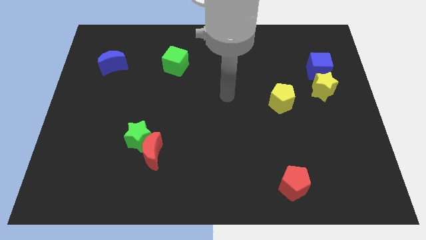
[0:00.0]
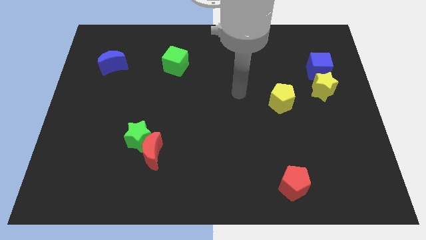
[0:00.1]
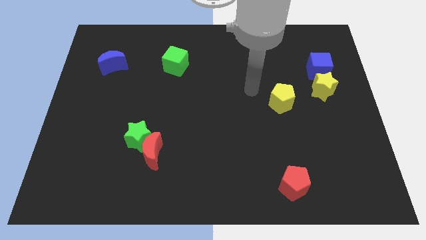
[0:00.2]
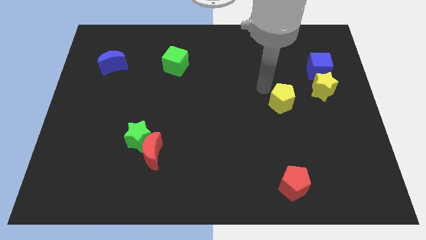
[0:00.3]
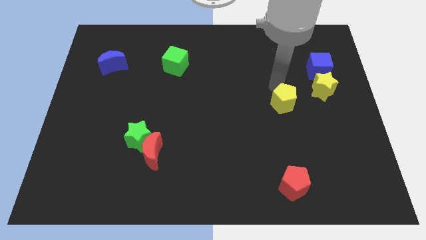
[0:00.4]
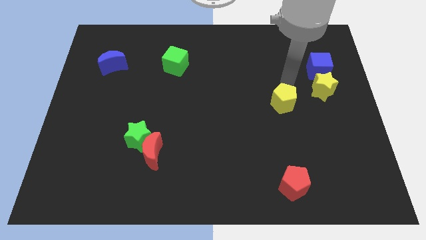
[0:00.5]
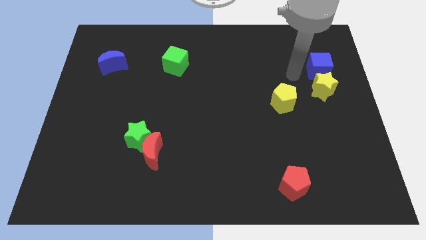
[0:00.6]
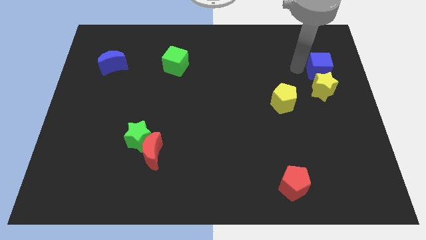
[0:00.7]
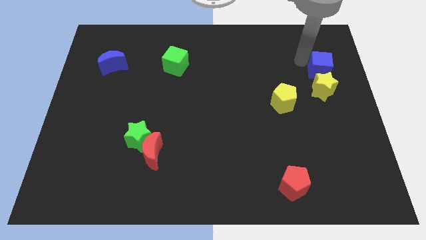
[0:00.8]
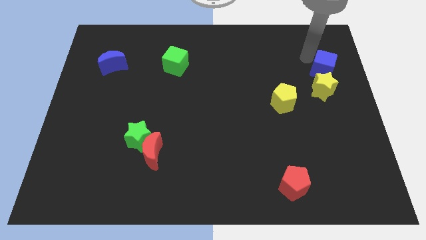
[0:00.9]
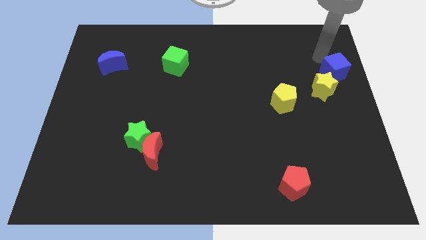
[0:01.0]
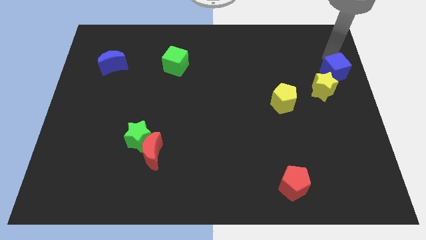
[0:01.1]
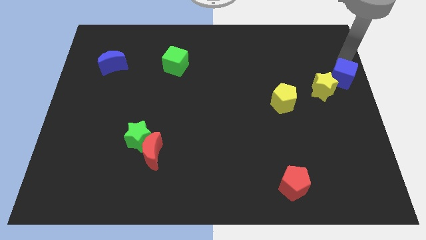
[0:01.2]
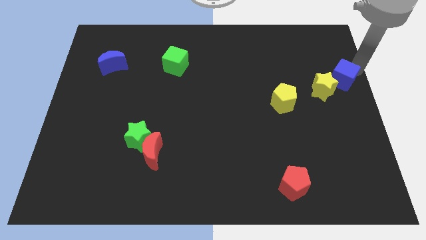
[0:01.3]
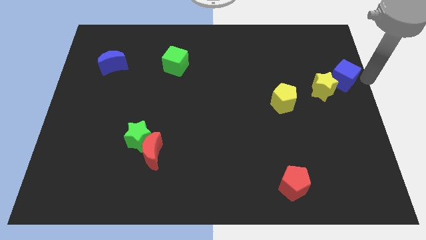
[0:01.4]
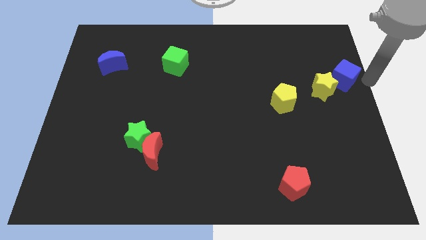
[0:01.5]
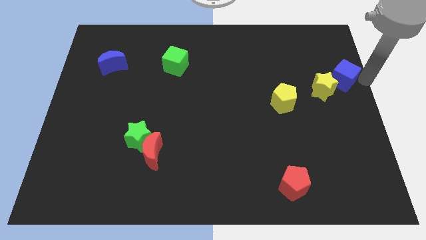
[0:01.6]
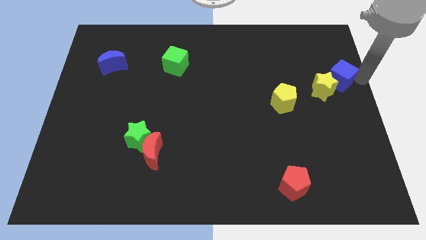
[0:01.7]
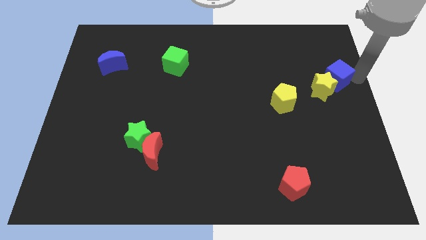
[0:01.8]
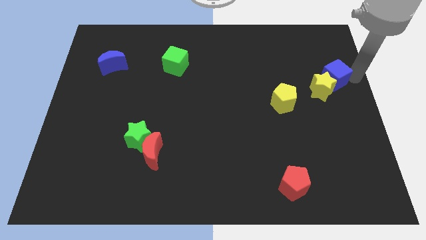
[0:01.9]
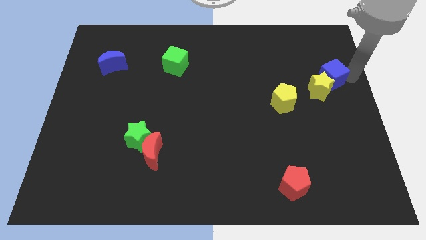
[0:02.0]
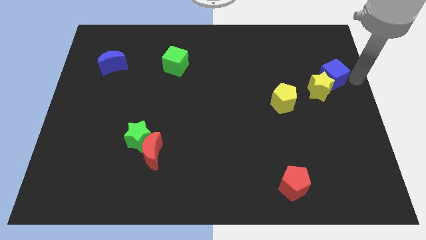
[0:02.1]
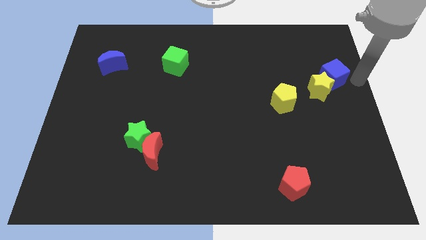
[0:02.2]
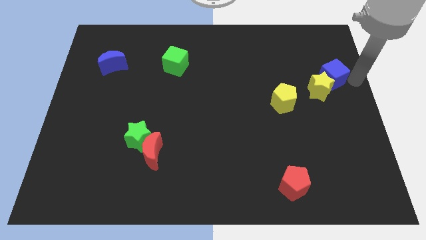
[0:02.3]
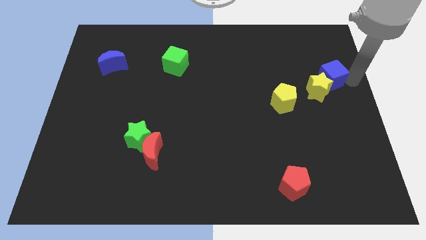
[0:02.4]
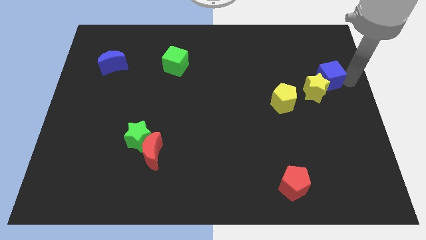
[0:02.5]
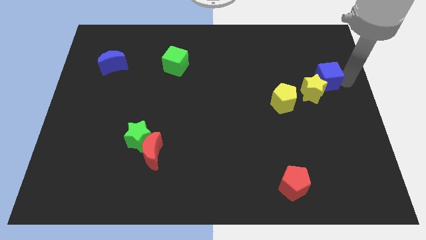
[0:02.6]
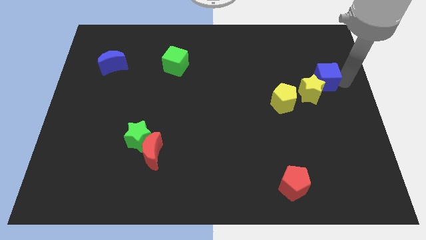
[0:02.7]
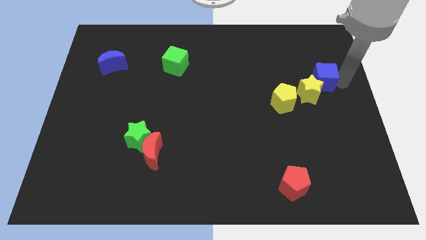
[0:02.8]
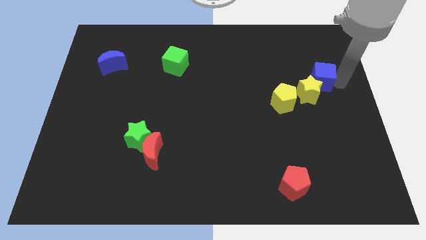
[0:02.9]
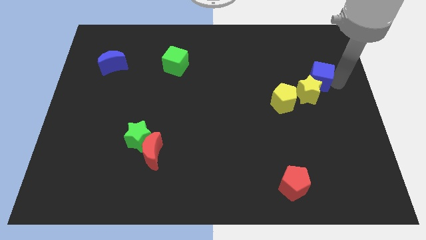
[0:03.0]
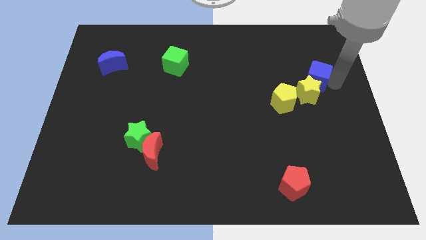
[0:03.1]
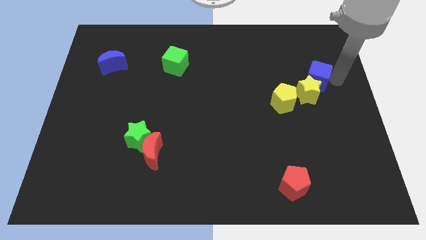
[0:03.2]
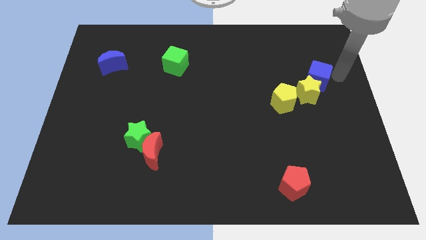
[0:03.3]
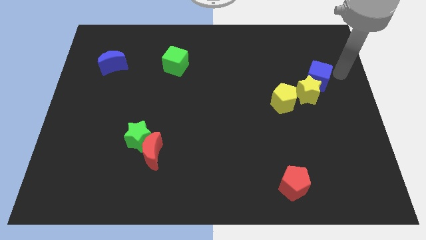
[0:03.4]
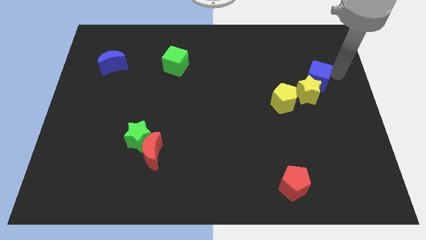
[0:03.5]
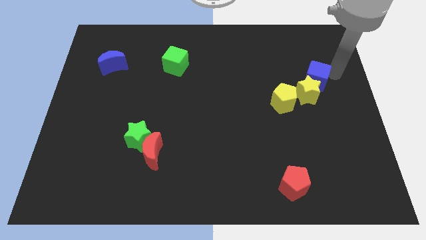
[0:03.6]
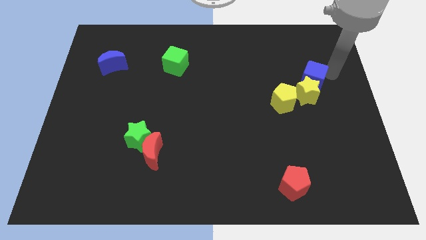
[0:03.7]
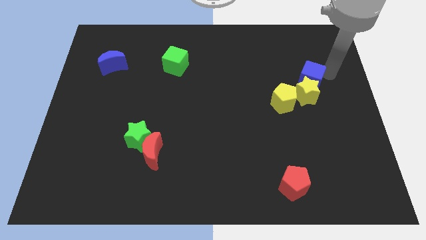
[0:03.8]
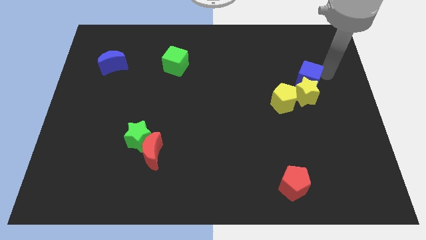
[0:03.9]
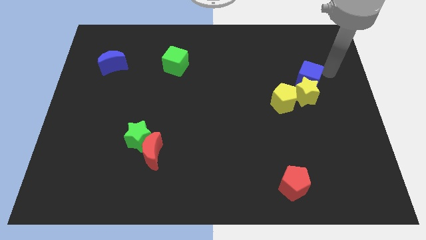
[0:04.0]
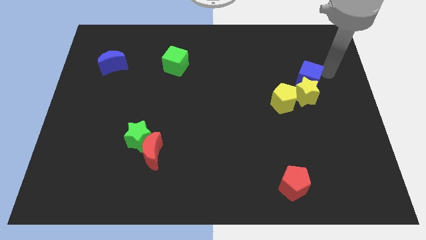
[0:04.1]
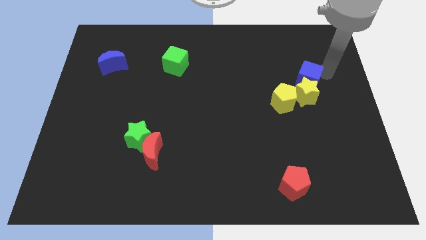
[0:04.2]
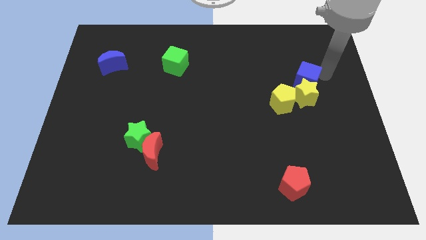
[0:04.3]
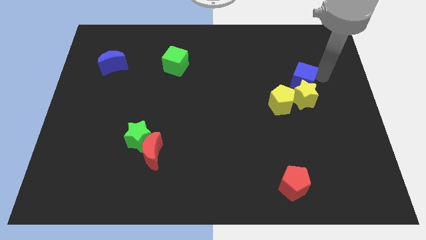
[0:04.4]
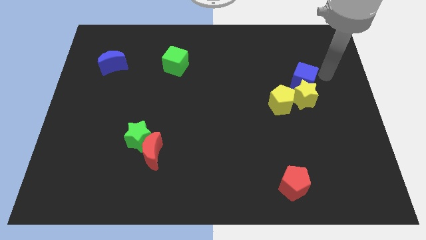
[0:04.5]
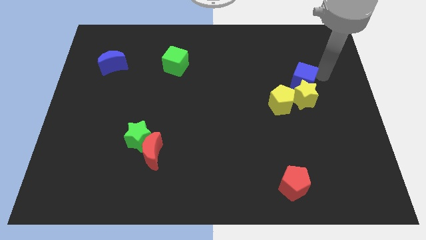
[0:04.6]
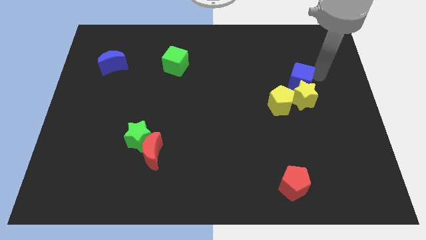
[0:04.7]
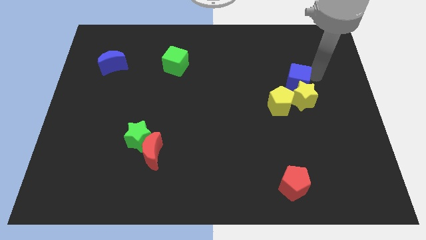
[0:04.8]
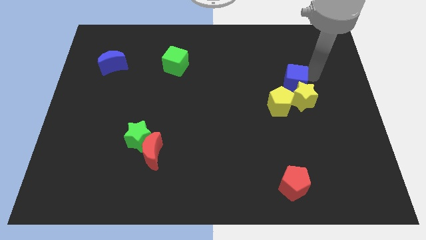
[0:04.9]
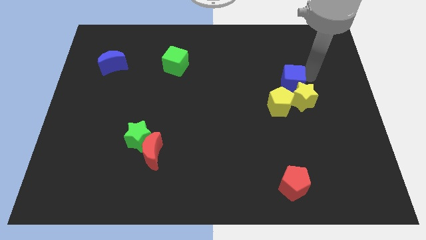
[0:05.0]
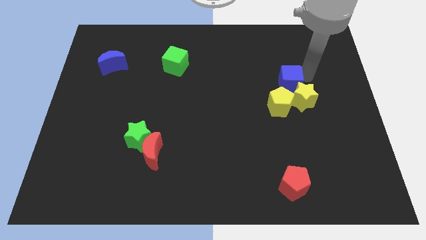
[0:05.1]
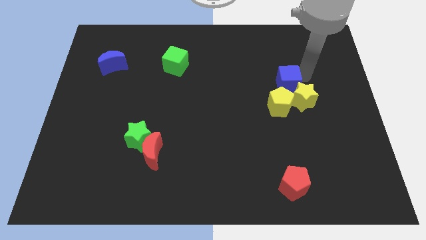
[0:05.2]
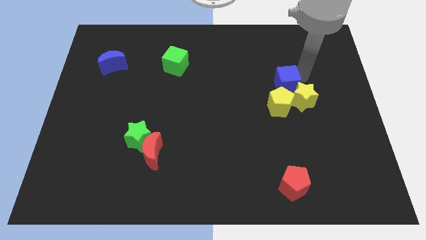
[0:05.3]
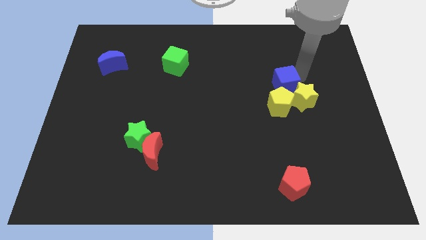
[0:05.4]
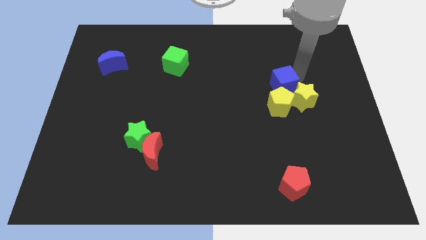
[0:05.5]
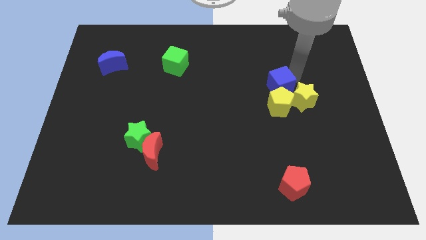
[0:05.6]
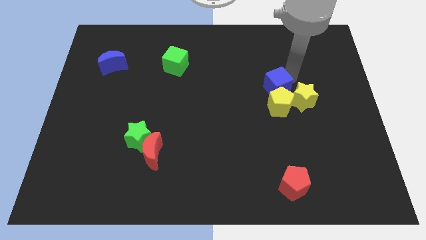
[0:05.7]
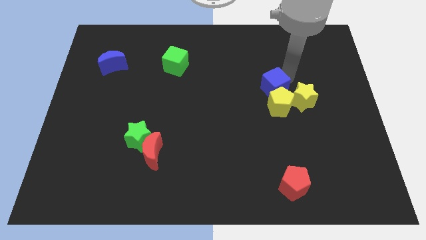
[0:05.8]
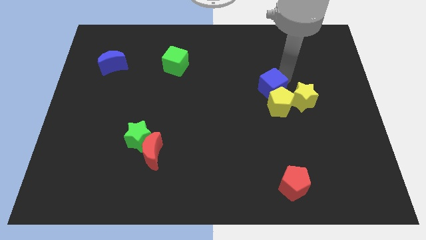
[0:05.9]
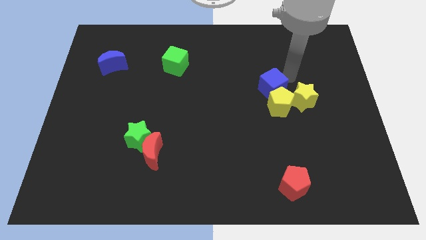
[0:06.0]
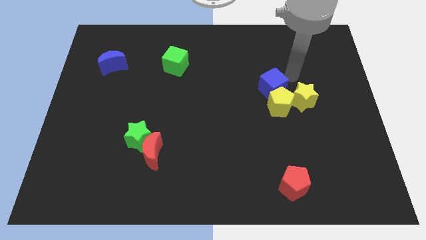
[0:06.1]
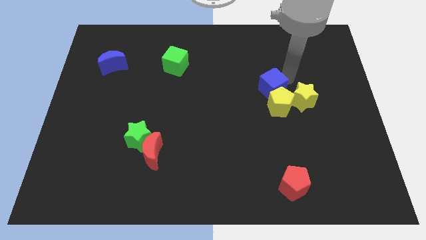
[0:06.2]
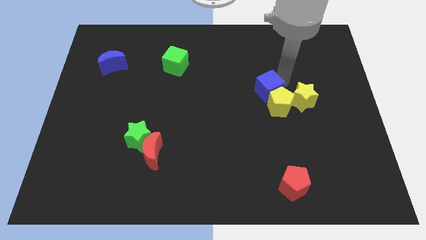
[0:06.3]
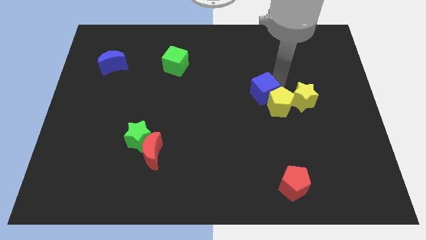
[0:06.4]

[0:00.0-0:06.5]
push the blue cube just left of the yellow pentagon
